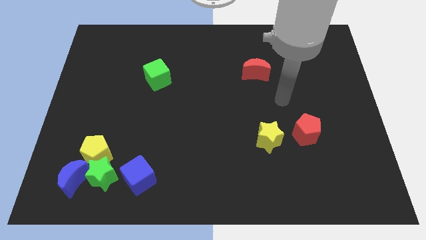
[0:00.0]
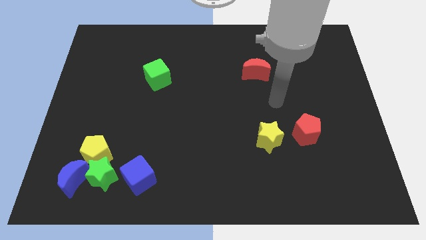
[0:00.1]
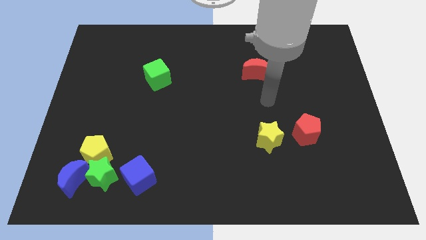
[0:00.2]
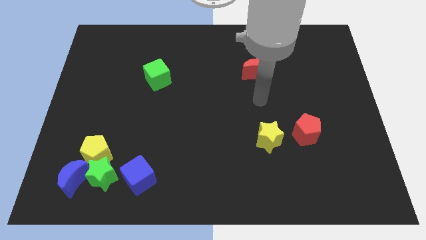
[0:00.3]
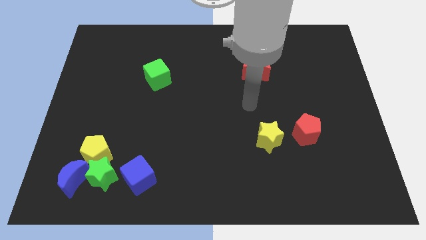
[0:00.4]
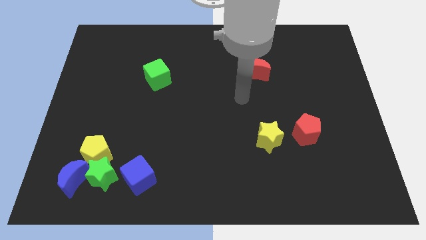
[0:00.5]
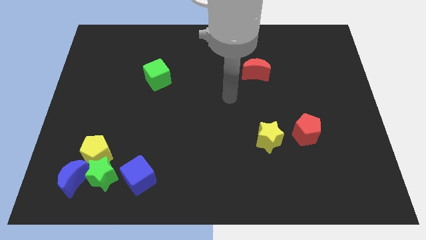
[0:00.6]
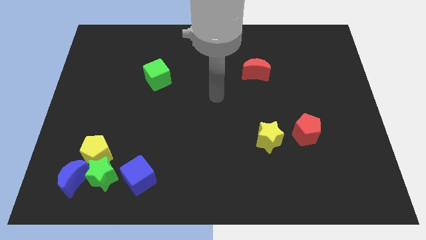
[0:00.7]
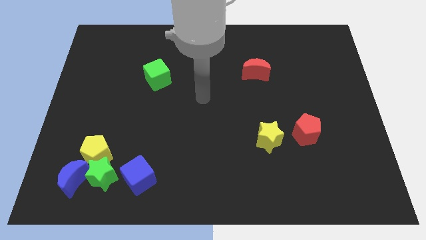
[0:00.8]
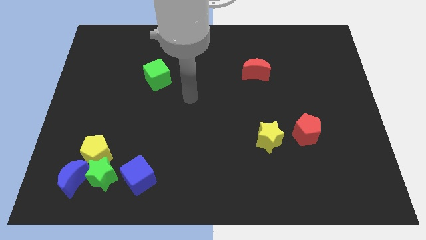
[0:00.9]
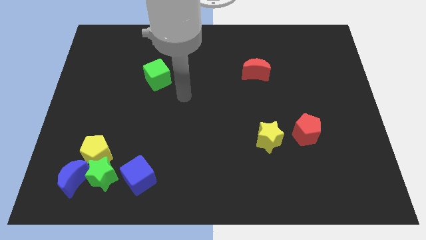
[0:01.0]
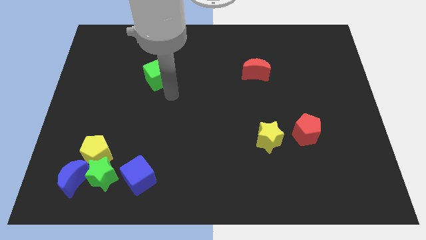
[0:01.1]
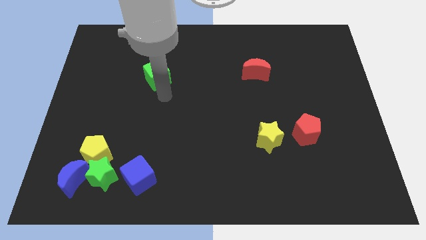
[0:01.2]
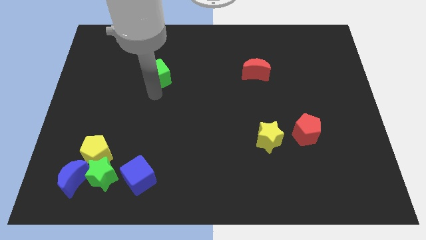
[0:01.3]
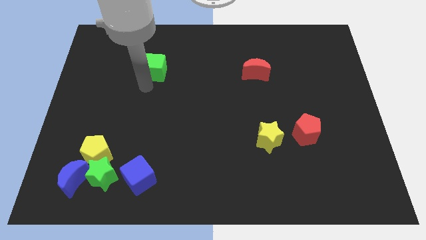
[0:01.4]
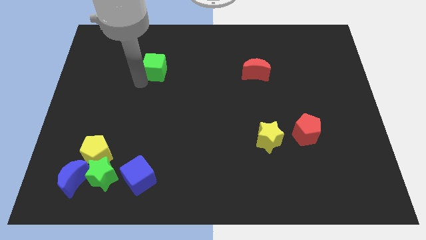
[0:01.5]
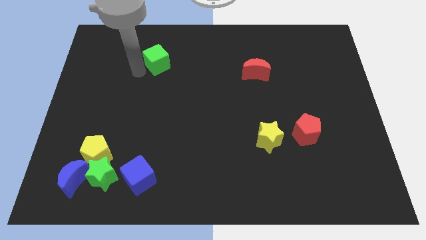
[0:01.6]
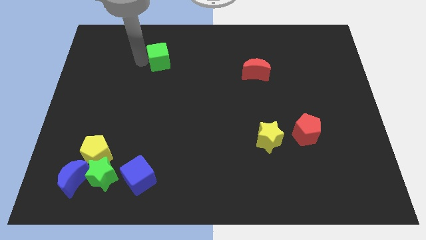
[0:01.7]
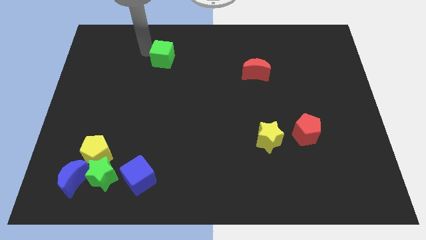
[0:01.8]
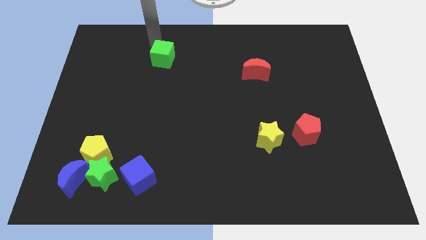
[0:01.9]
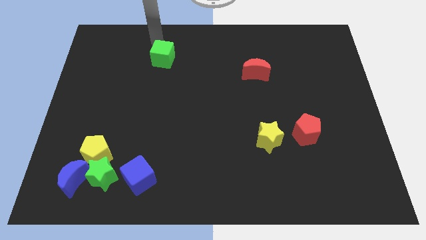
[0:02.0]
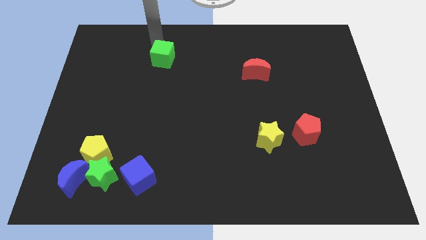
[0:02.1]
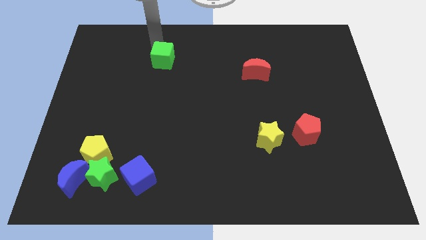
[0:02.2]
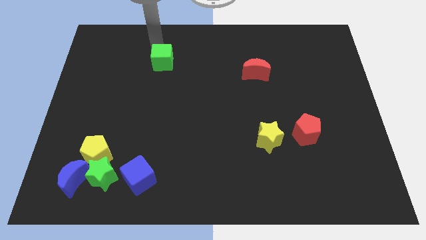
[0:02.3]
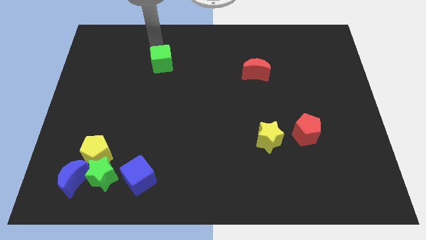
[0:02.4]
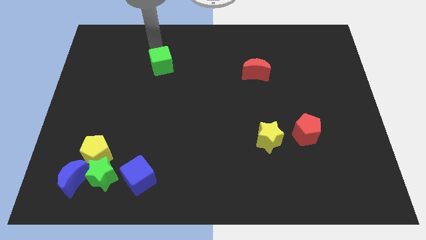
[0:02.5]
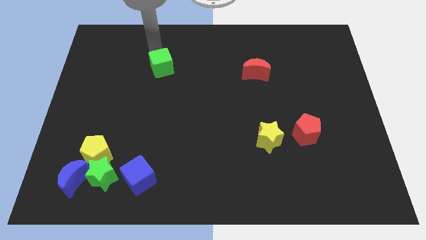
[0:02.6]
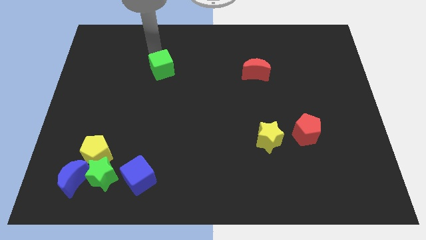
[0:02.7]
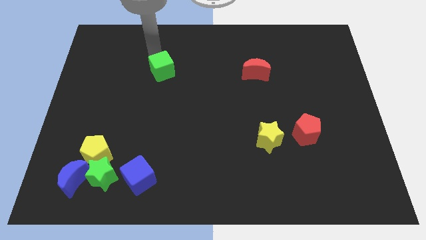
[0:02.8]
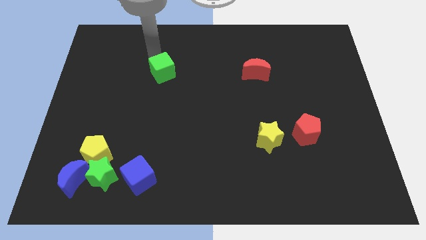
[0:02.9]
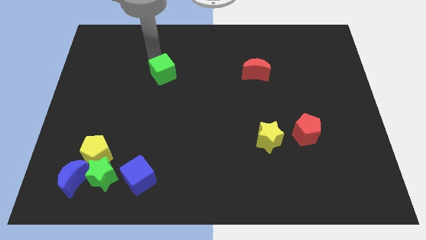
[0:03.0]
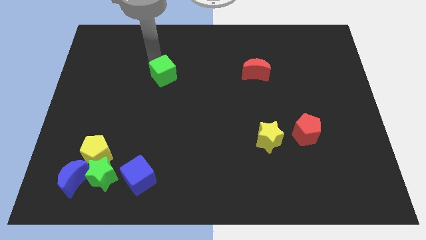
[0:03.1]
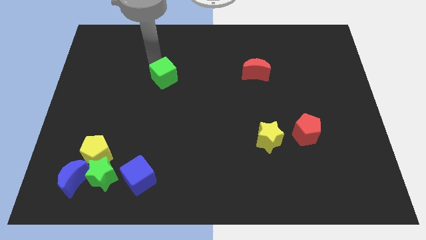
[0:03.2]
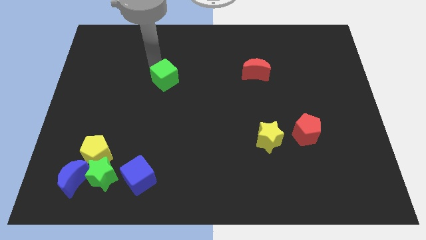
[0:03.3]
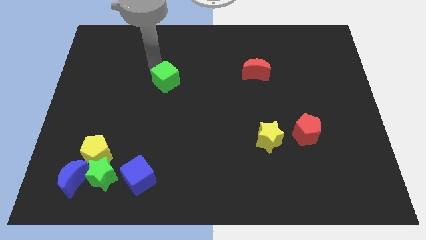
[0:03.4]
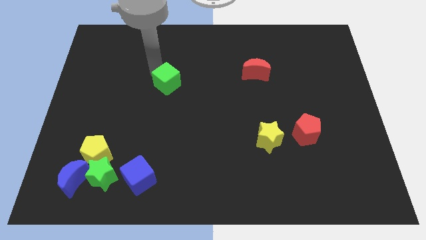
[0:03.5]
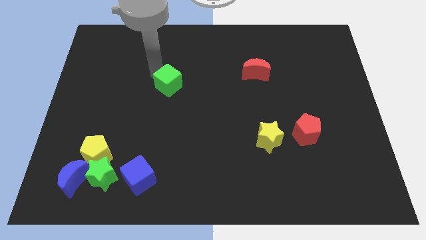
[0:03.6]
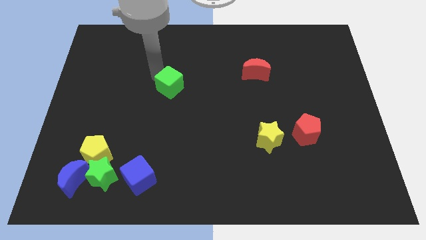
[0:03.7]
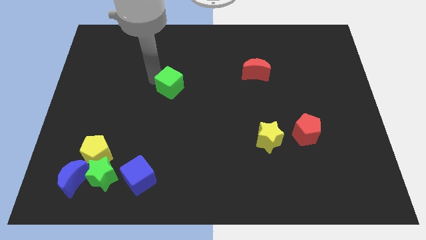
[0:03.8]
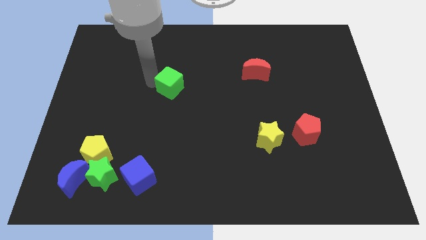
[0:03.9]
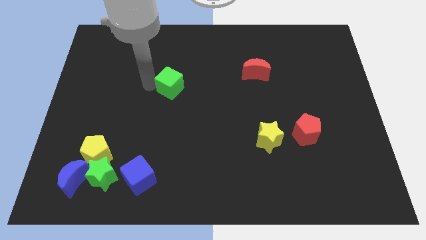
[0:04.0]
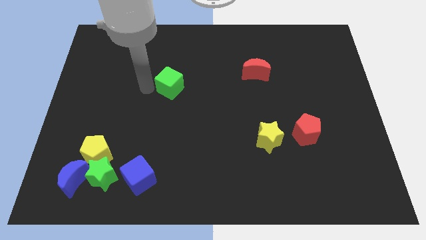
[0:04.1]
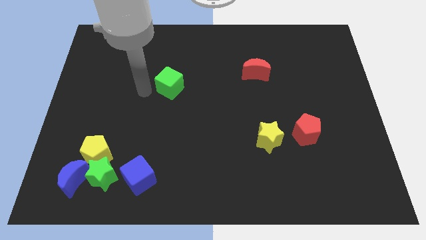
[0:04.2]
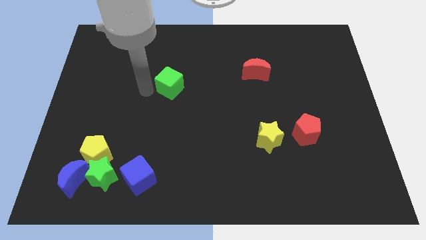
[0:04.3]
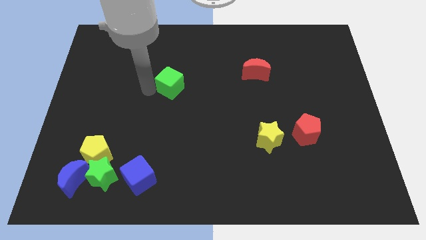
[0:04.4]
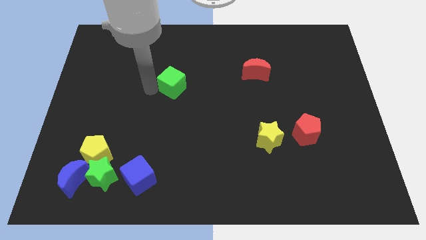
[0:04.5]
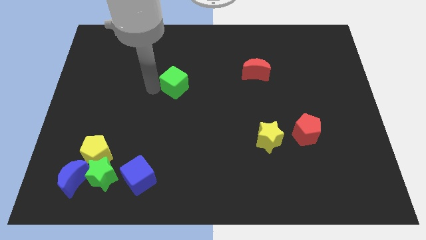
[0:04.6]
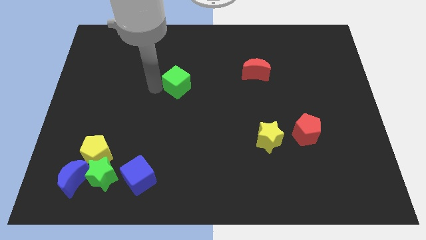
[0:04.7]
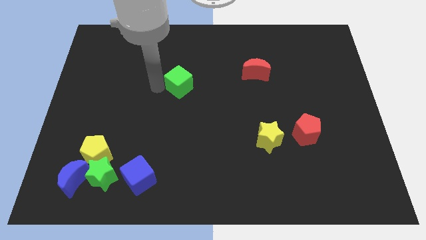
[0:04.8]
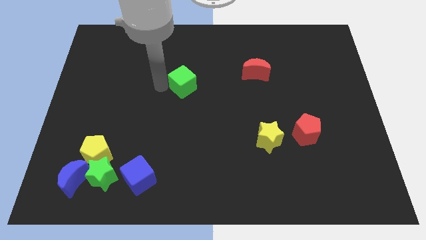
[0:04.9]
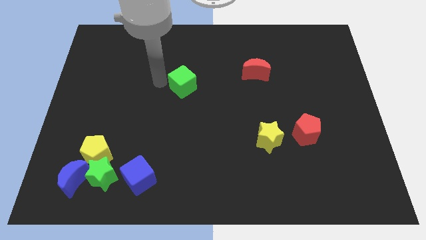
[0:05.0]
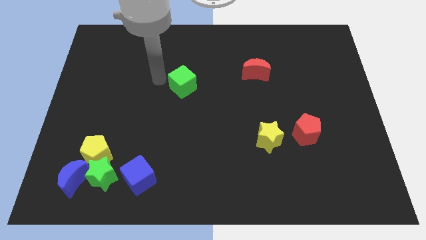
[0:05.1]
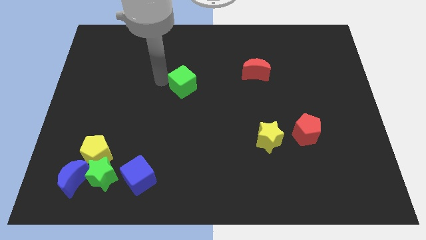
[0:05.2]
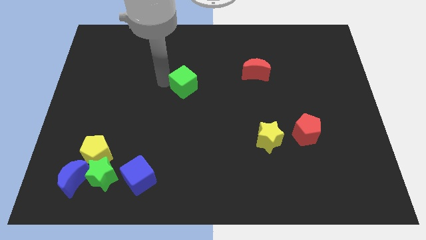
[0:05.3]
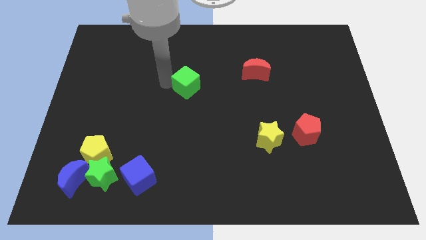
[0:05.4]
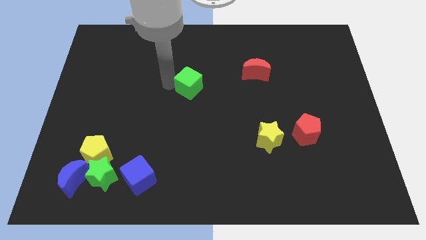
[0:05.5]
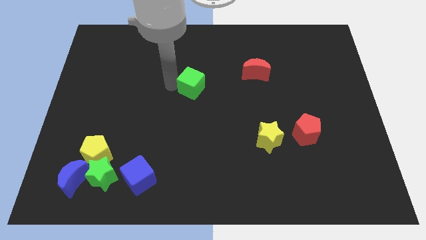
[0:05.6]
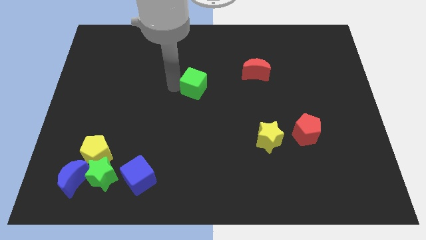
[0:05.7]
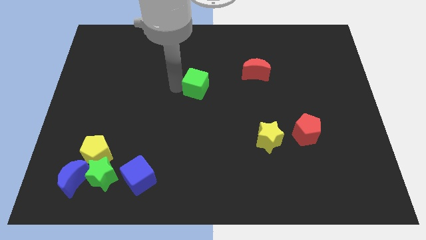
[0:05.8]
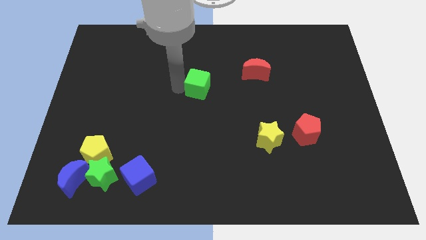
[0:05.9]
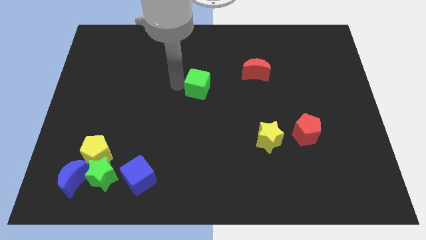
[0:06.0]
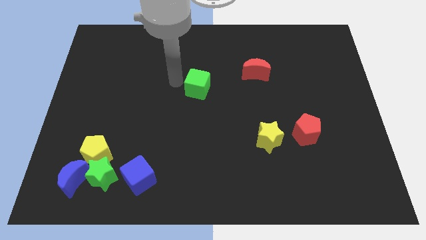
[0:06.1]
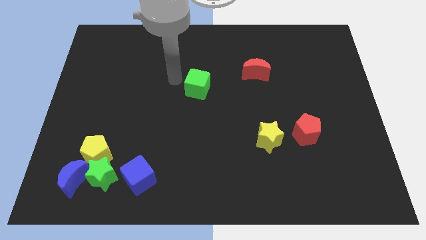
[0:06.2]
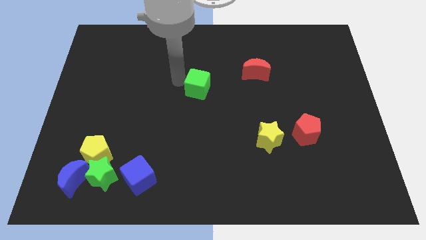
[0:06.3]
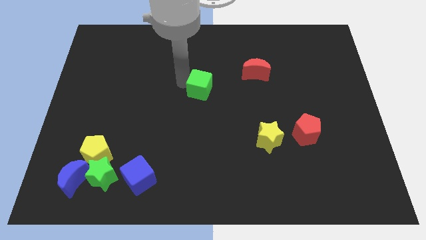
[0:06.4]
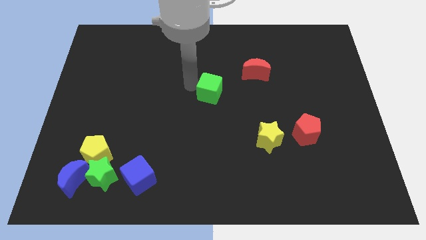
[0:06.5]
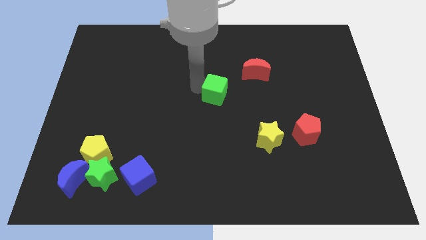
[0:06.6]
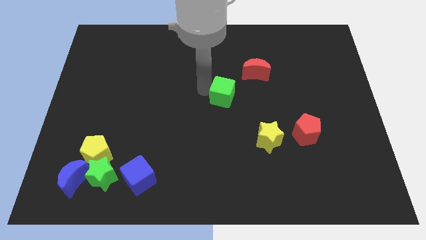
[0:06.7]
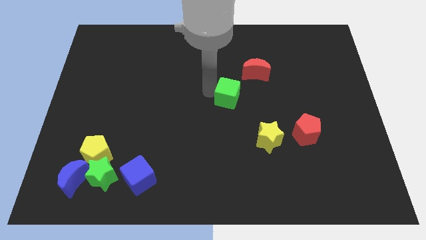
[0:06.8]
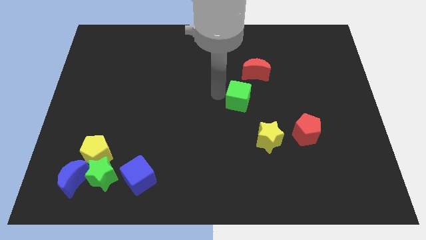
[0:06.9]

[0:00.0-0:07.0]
put the green cube to the bottom of the red moon

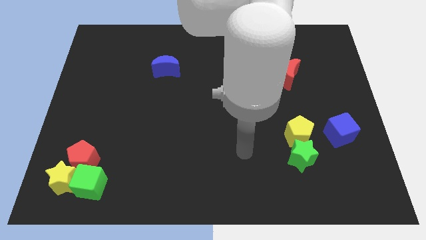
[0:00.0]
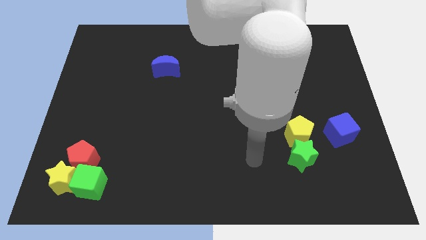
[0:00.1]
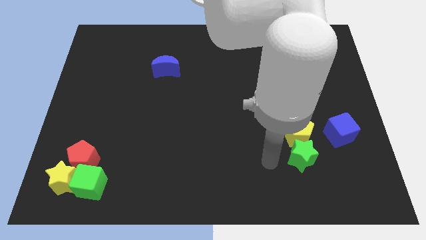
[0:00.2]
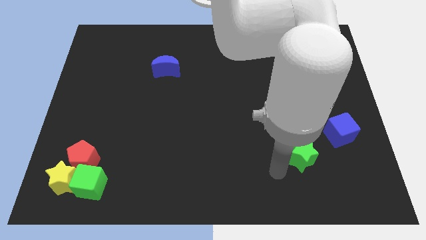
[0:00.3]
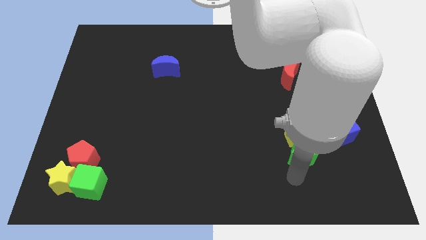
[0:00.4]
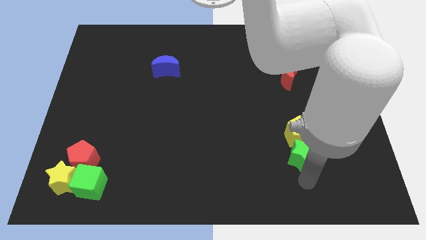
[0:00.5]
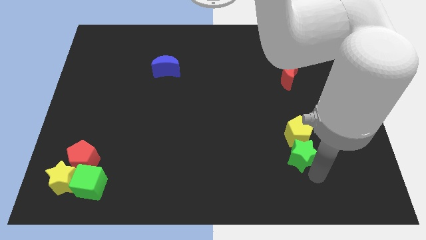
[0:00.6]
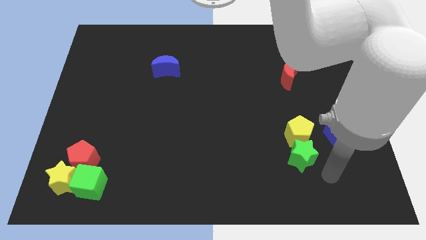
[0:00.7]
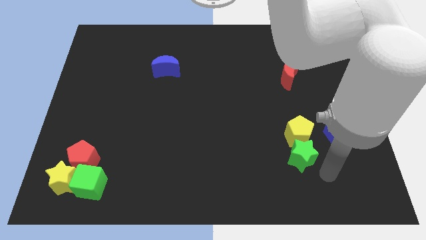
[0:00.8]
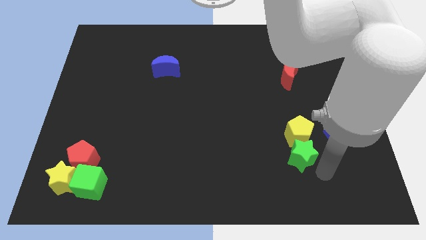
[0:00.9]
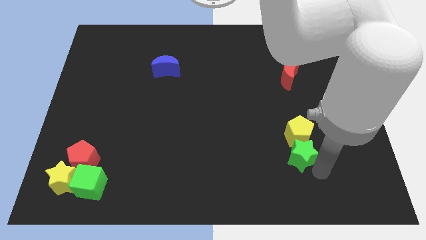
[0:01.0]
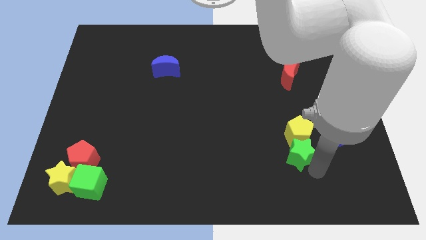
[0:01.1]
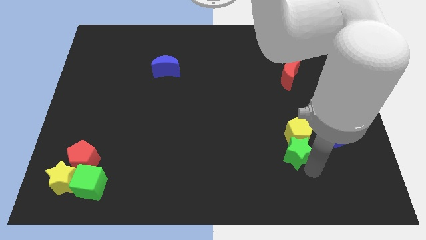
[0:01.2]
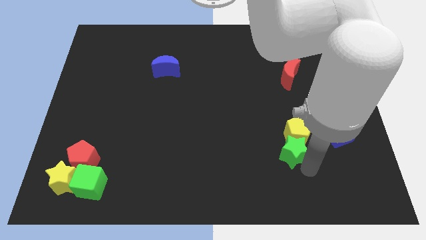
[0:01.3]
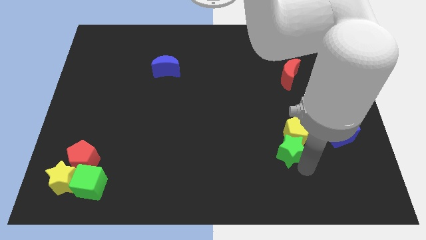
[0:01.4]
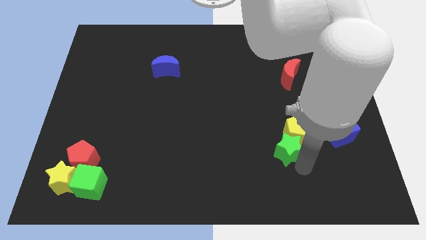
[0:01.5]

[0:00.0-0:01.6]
move the green star left of the blue cube
